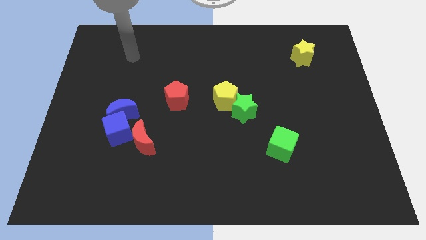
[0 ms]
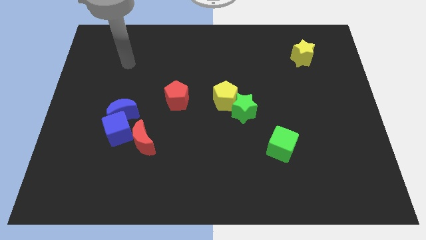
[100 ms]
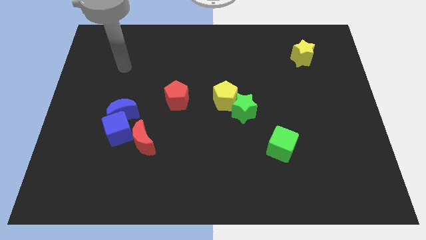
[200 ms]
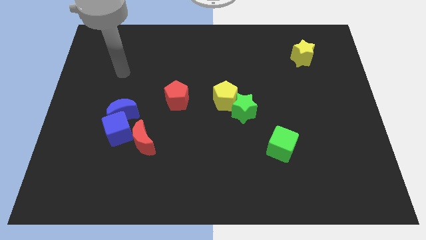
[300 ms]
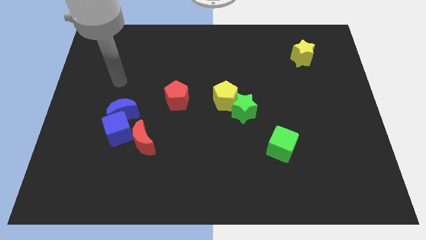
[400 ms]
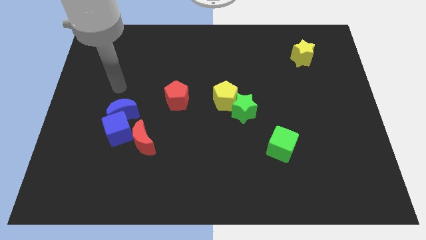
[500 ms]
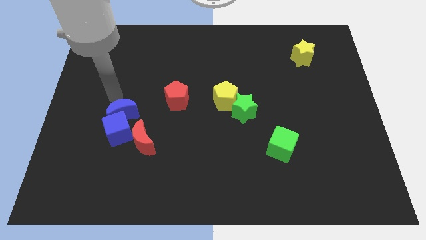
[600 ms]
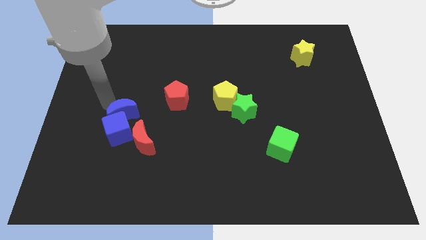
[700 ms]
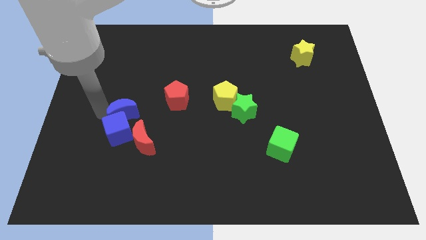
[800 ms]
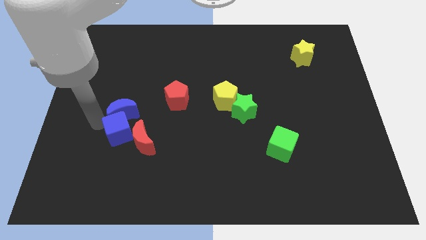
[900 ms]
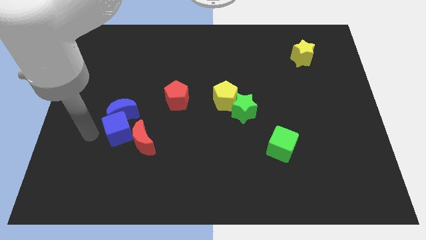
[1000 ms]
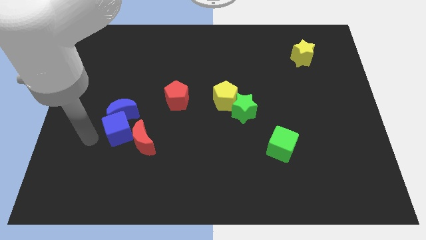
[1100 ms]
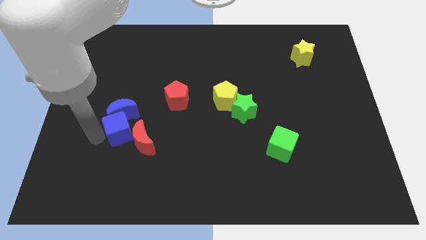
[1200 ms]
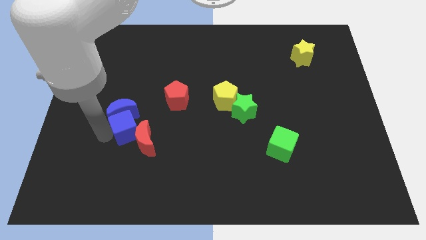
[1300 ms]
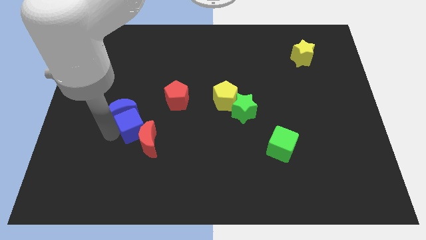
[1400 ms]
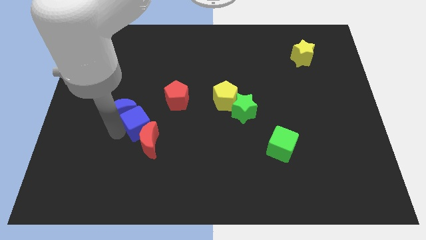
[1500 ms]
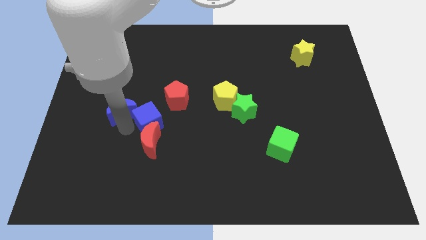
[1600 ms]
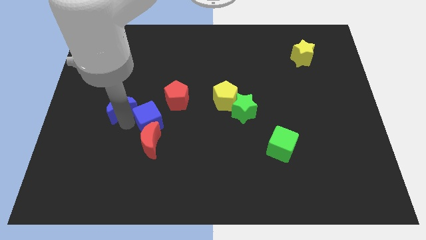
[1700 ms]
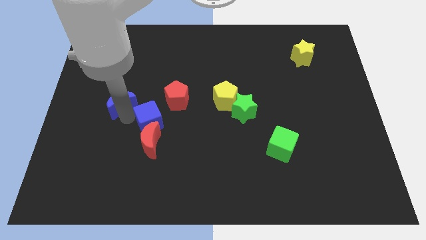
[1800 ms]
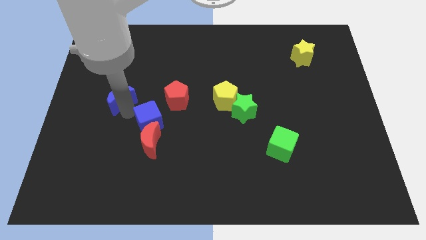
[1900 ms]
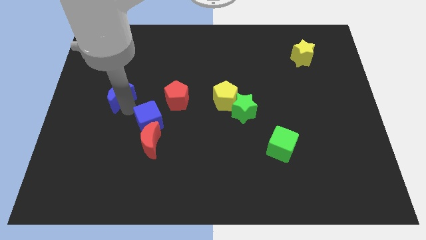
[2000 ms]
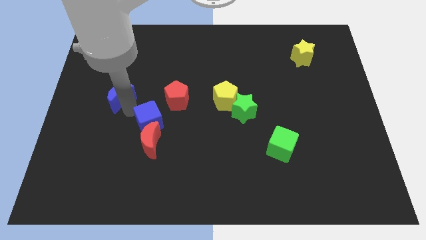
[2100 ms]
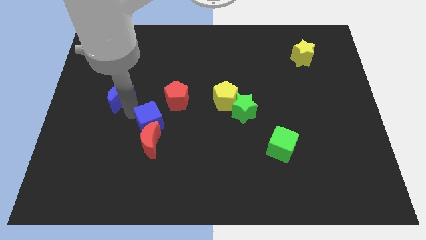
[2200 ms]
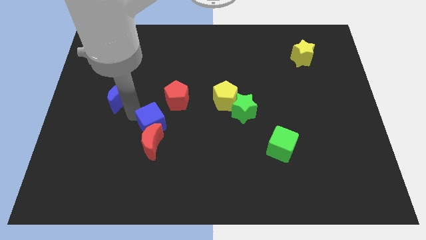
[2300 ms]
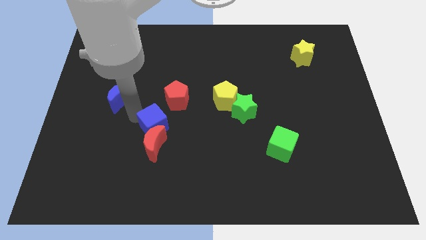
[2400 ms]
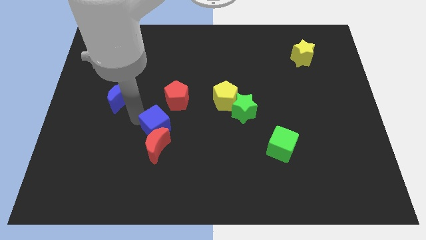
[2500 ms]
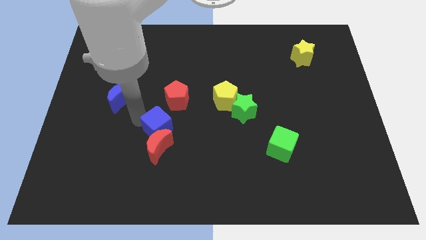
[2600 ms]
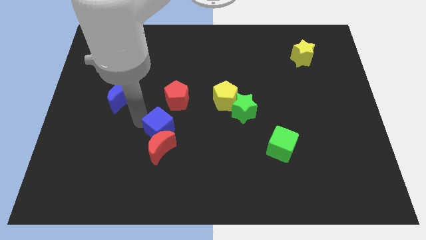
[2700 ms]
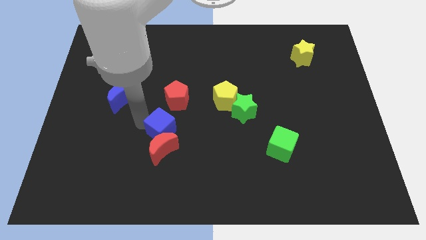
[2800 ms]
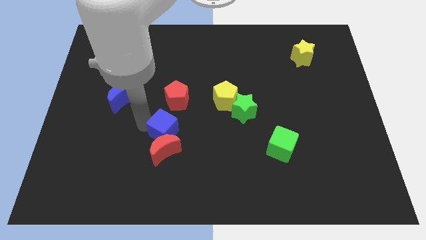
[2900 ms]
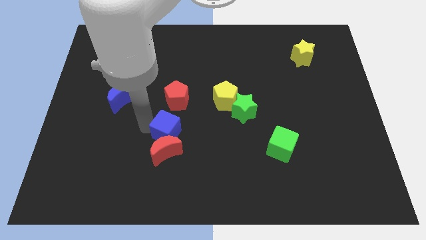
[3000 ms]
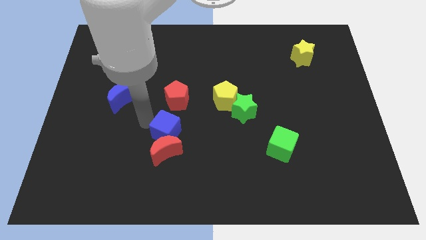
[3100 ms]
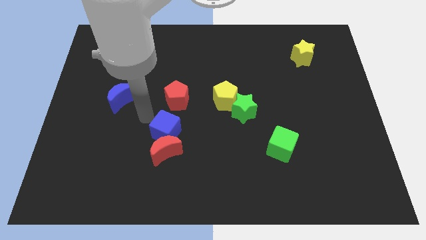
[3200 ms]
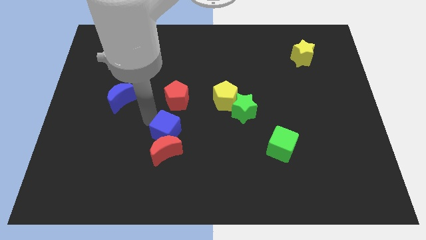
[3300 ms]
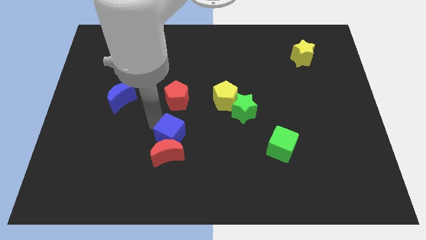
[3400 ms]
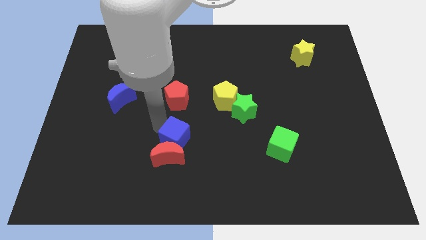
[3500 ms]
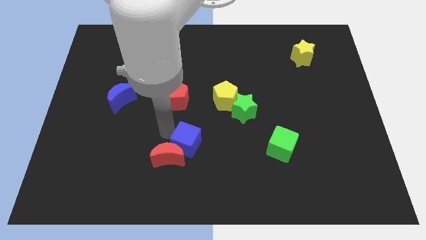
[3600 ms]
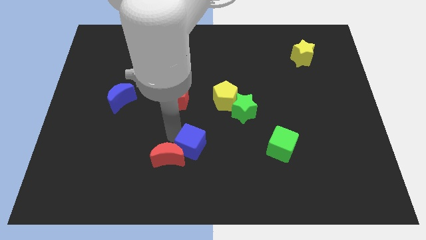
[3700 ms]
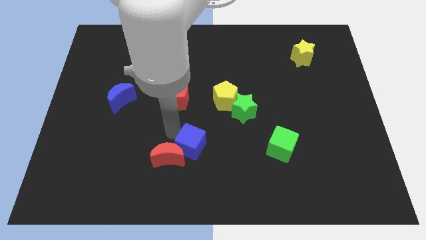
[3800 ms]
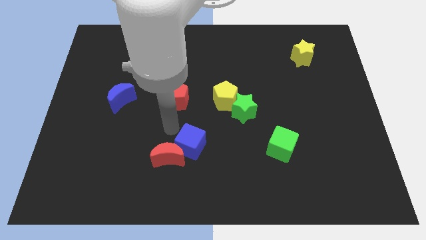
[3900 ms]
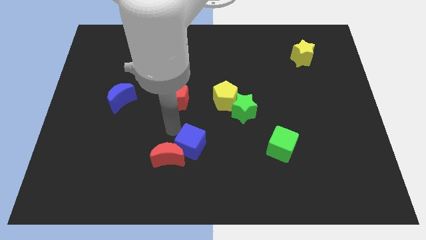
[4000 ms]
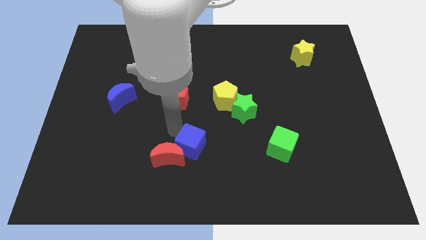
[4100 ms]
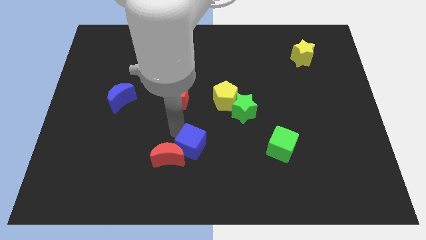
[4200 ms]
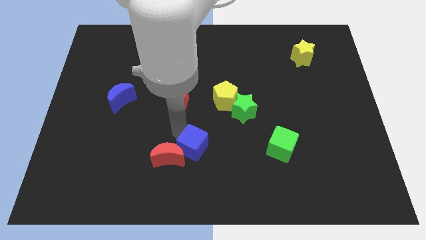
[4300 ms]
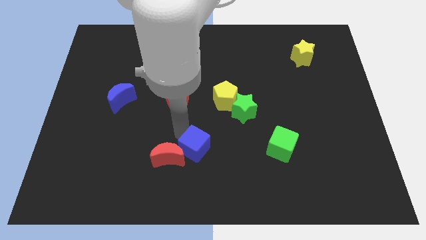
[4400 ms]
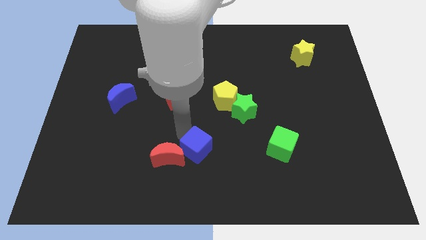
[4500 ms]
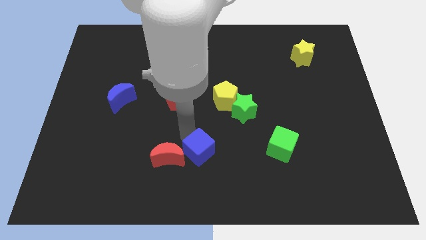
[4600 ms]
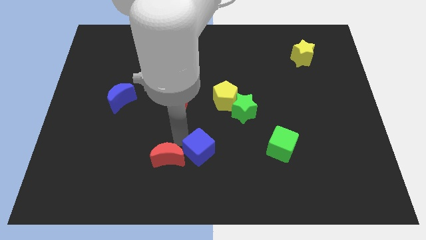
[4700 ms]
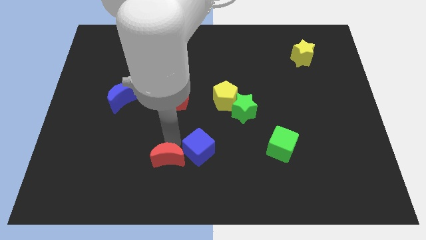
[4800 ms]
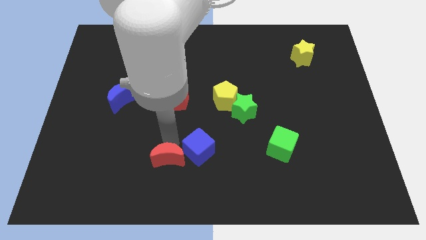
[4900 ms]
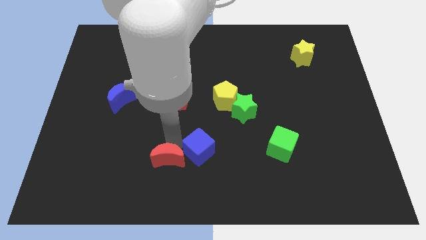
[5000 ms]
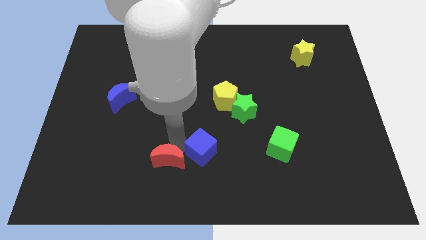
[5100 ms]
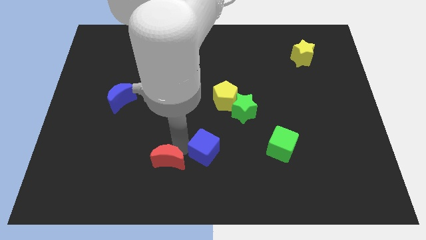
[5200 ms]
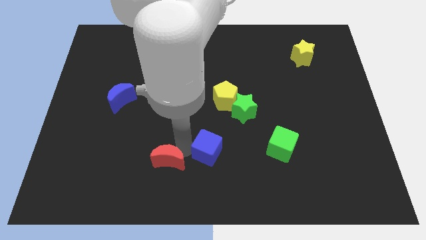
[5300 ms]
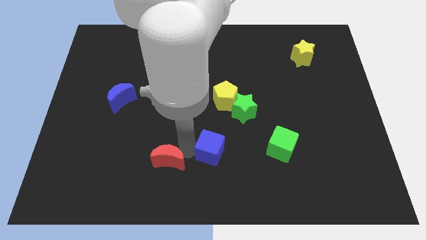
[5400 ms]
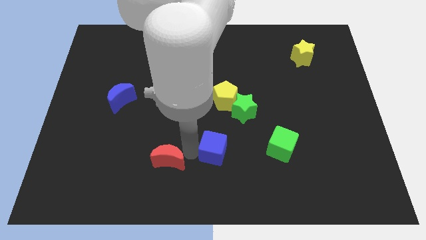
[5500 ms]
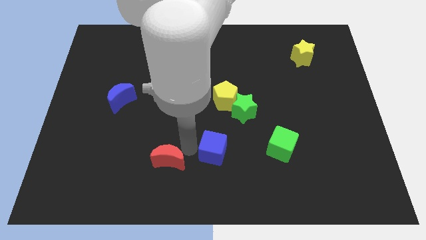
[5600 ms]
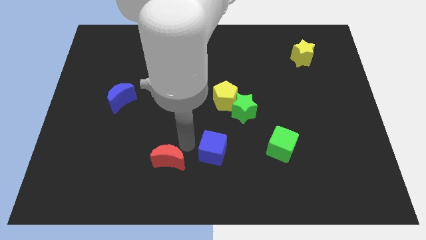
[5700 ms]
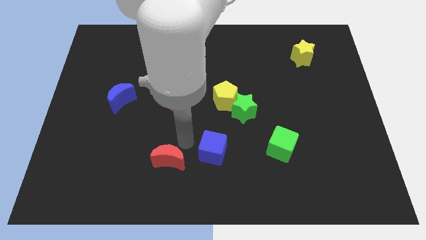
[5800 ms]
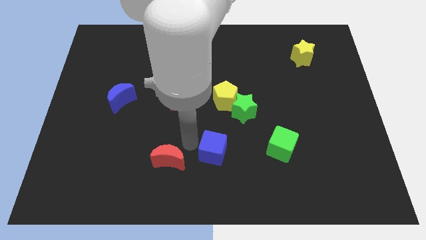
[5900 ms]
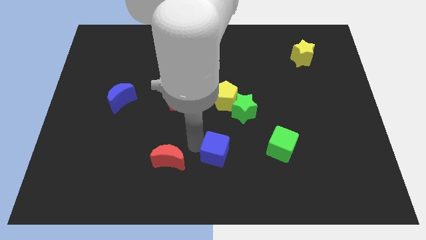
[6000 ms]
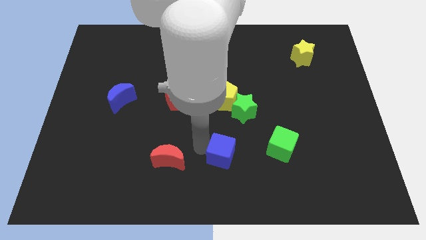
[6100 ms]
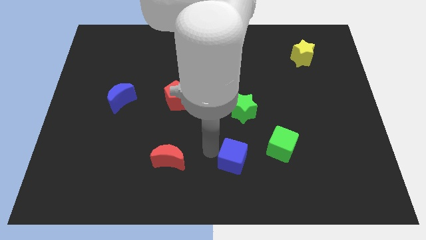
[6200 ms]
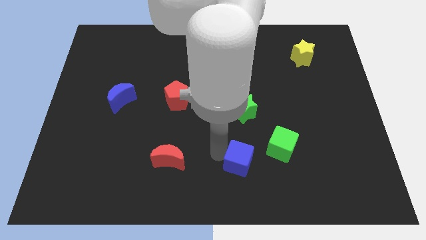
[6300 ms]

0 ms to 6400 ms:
move the blue cube to the bottom left of the green cube

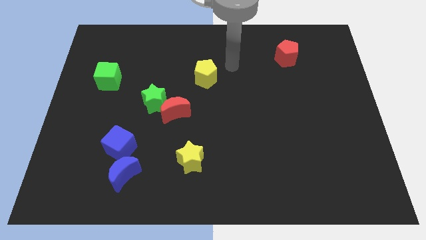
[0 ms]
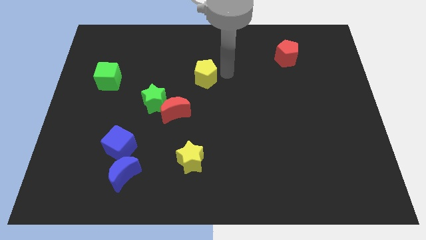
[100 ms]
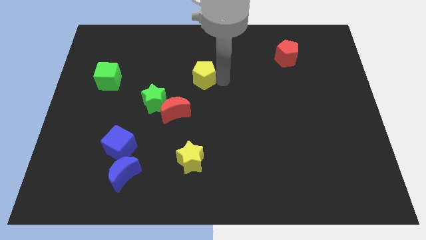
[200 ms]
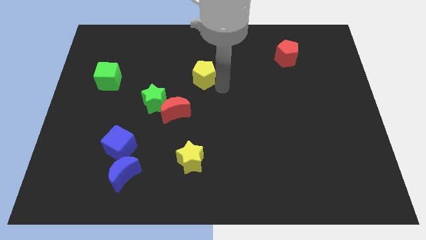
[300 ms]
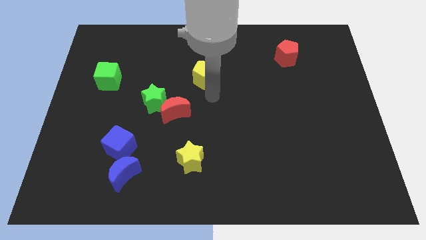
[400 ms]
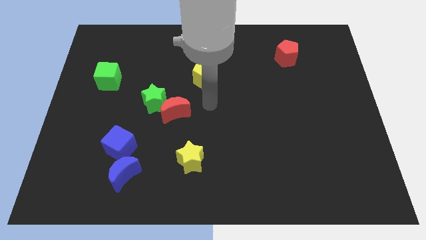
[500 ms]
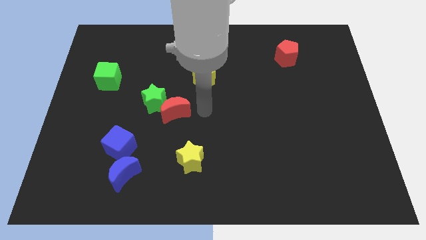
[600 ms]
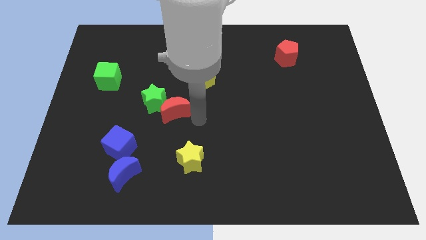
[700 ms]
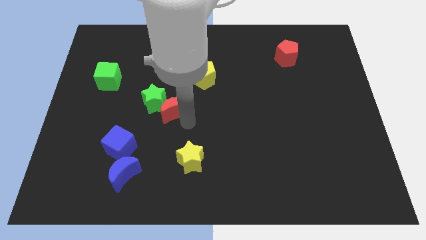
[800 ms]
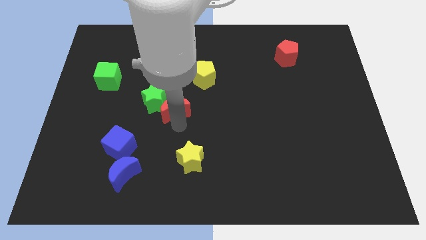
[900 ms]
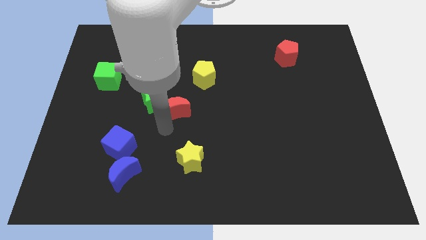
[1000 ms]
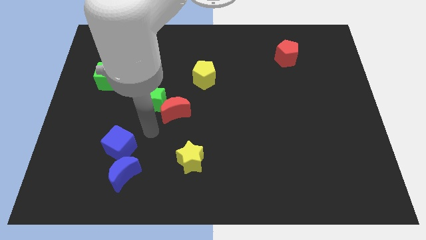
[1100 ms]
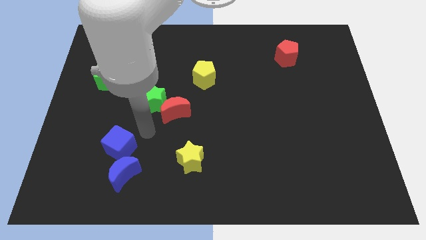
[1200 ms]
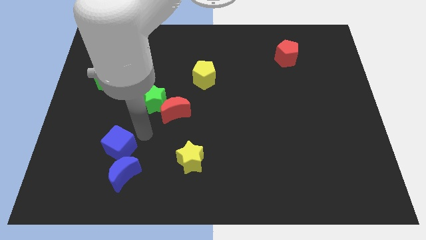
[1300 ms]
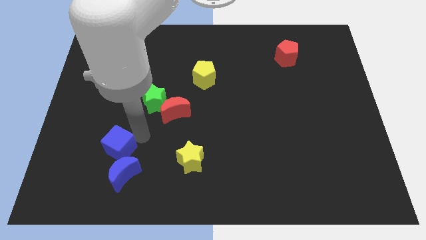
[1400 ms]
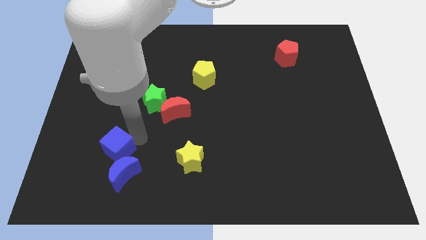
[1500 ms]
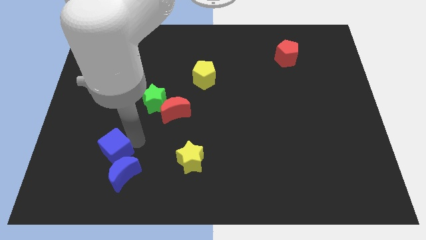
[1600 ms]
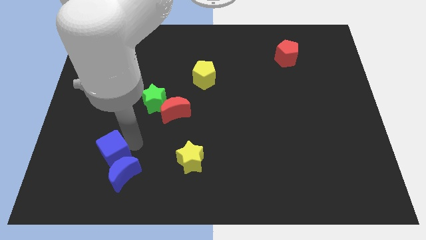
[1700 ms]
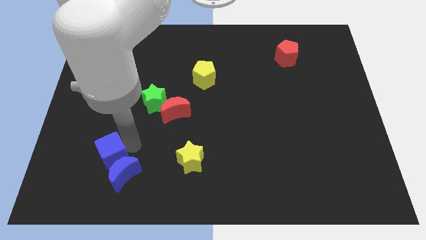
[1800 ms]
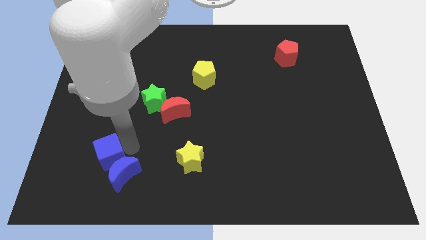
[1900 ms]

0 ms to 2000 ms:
slide the blue cube left of the blue moon
